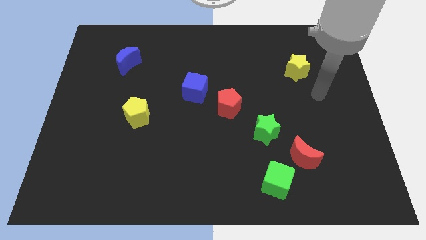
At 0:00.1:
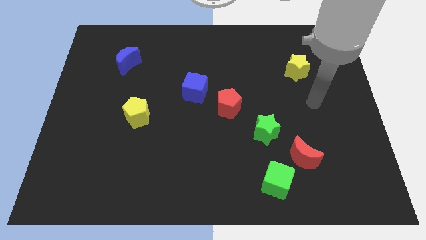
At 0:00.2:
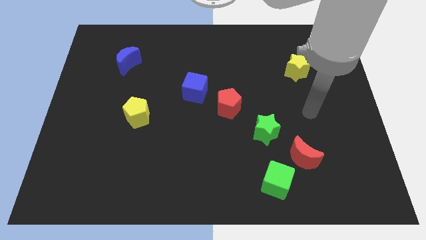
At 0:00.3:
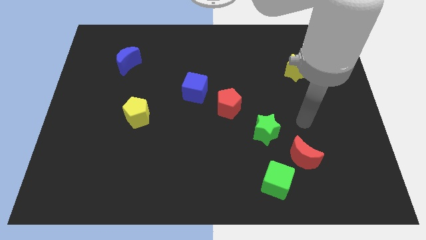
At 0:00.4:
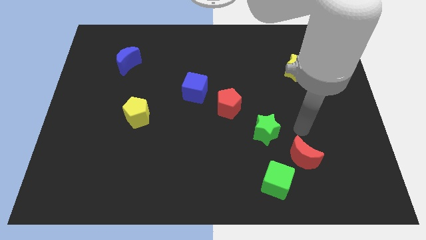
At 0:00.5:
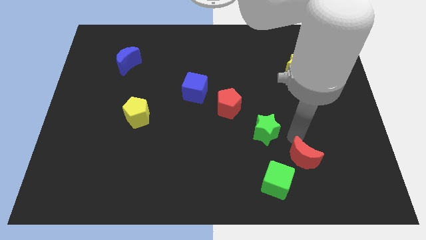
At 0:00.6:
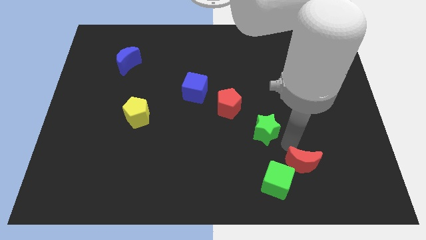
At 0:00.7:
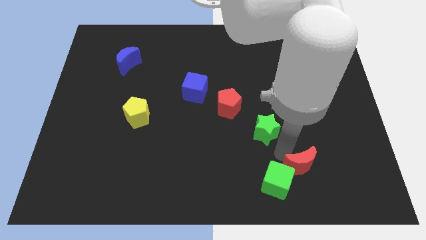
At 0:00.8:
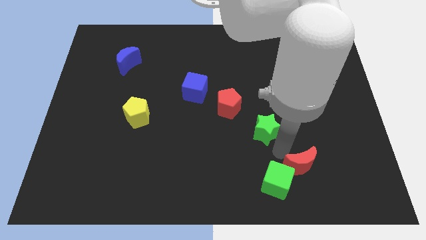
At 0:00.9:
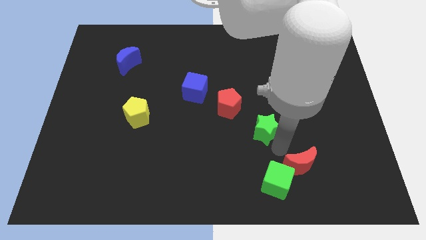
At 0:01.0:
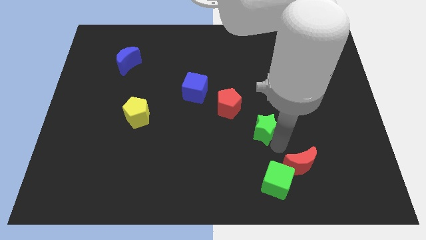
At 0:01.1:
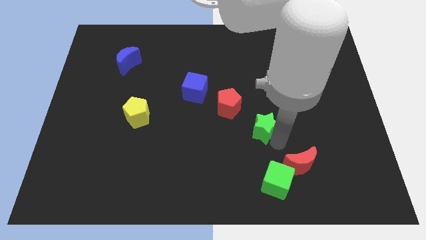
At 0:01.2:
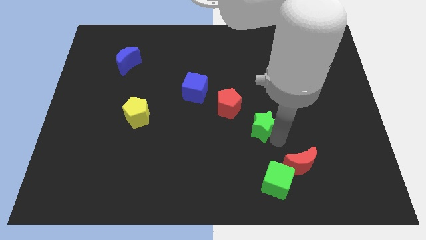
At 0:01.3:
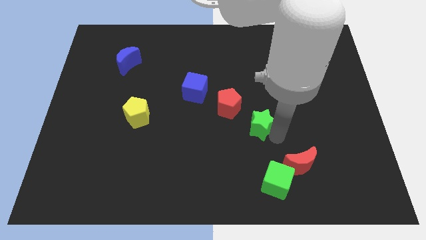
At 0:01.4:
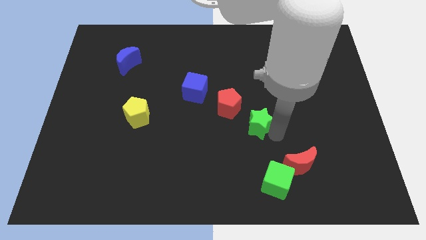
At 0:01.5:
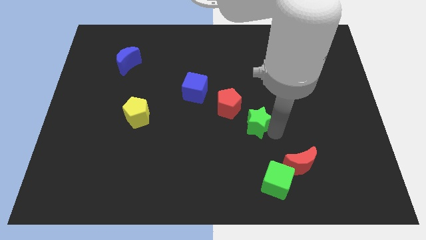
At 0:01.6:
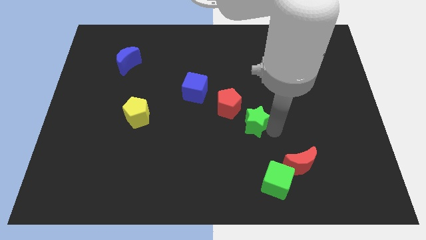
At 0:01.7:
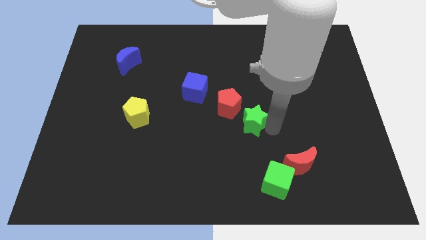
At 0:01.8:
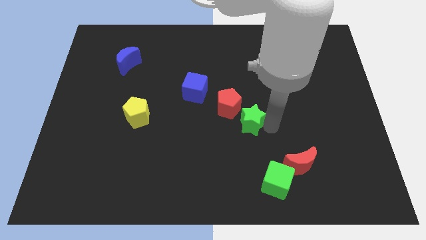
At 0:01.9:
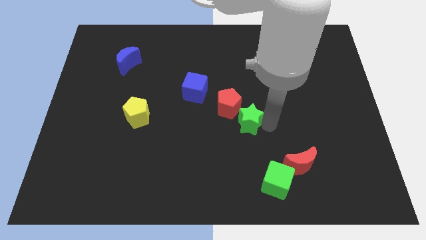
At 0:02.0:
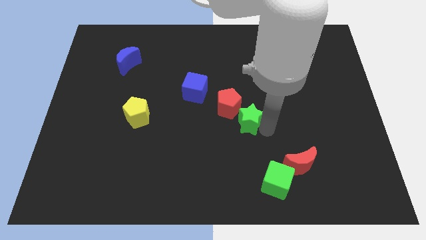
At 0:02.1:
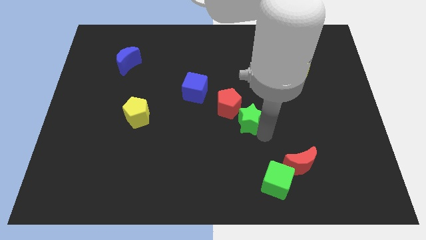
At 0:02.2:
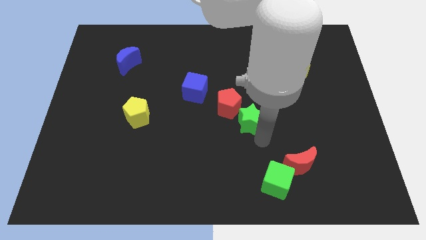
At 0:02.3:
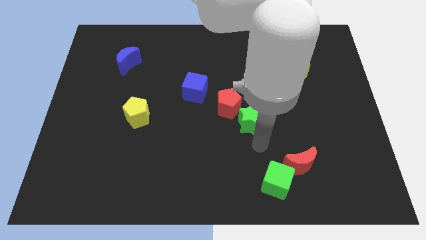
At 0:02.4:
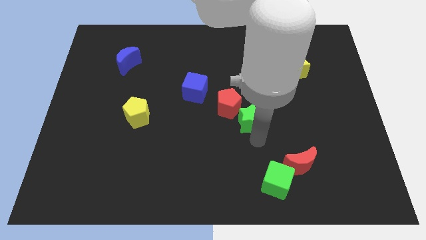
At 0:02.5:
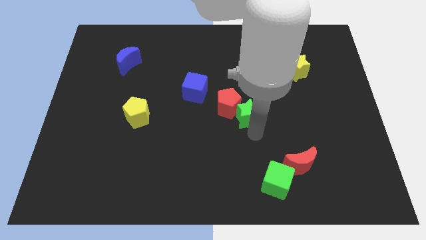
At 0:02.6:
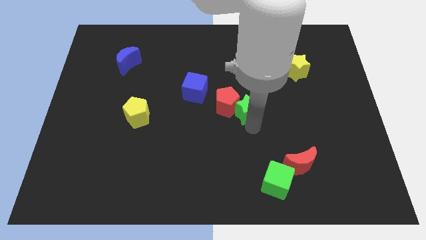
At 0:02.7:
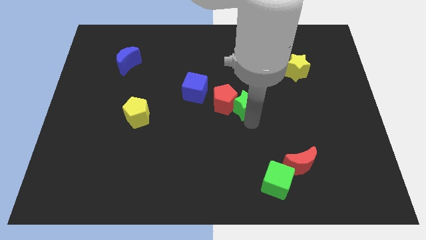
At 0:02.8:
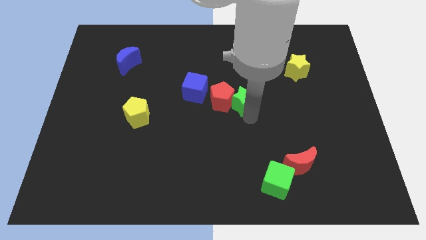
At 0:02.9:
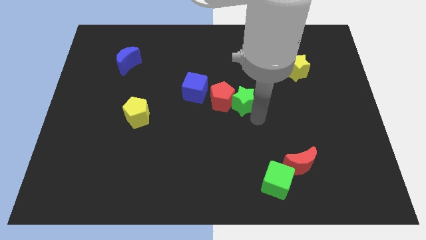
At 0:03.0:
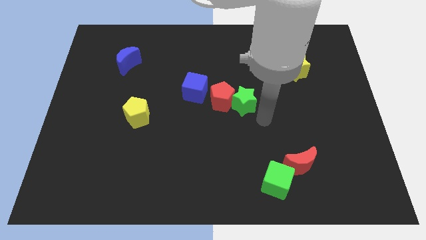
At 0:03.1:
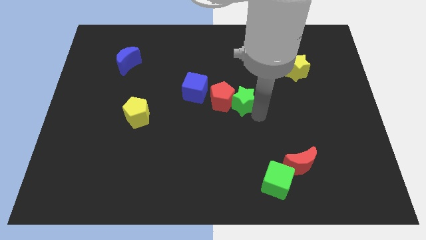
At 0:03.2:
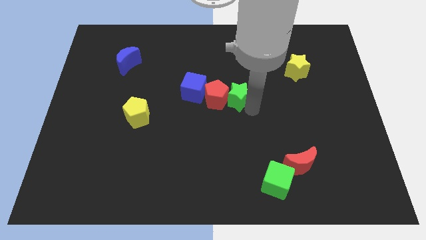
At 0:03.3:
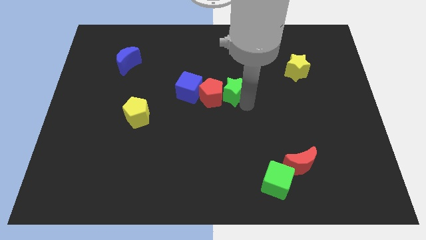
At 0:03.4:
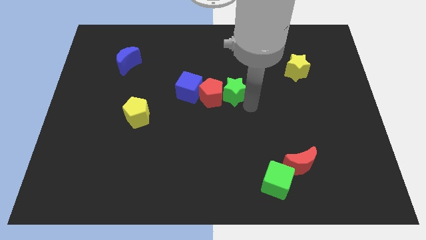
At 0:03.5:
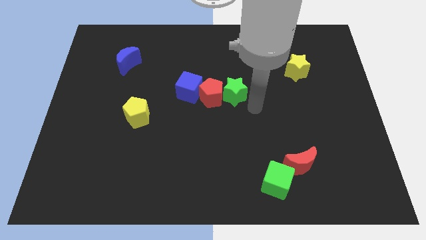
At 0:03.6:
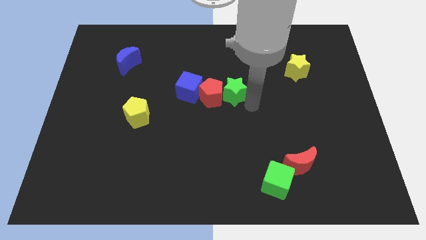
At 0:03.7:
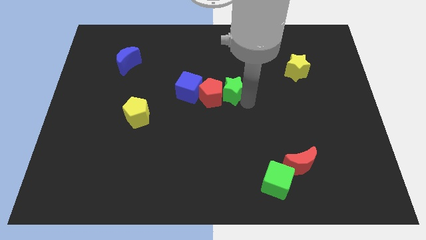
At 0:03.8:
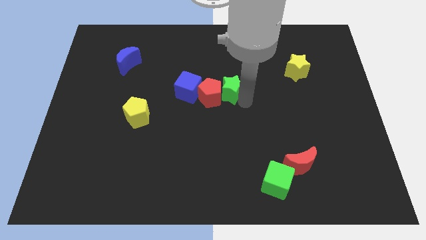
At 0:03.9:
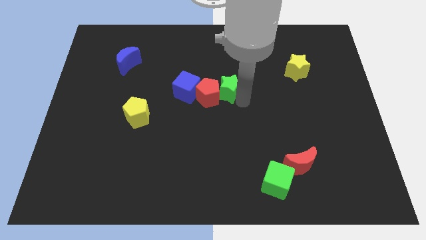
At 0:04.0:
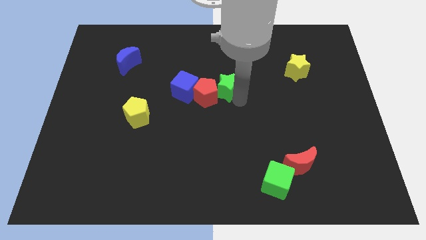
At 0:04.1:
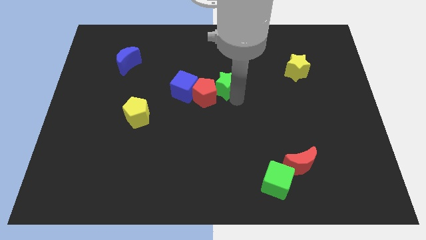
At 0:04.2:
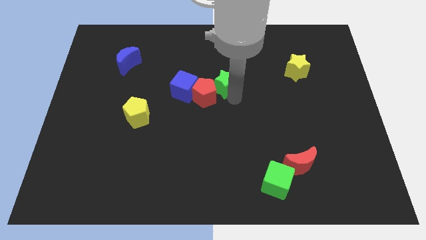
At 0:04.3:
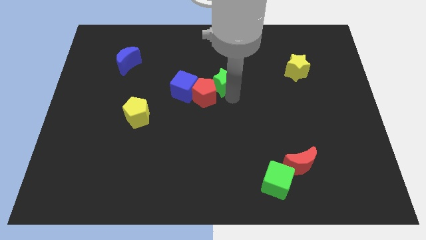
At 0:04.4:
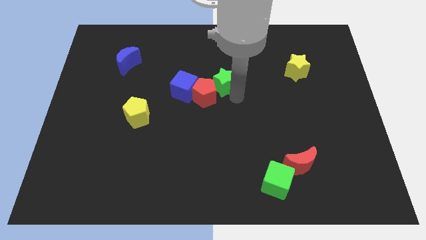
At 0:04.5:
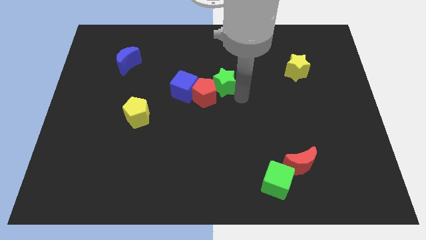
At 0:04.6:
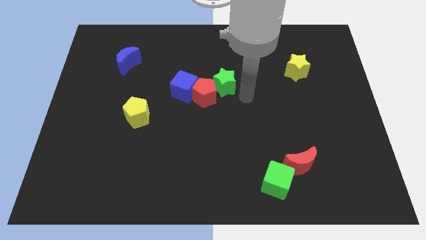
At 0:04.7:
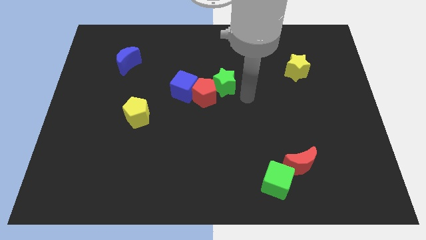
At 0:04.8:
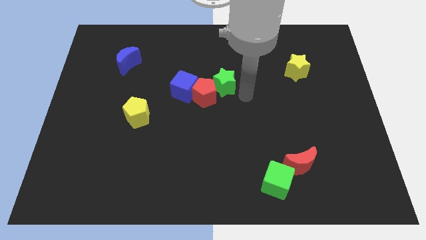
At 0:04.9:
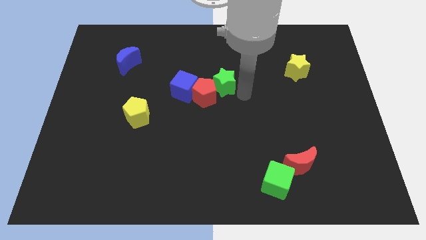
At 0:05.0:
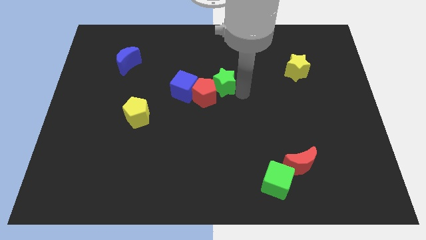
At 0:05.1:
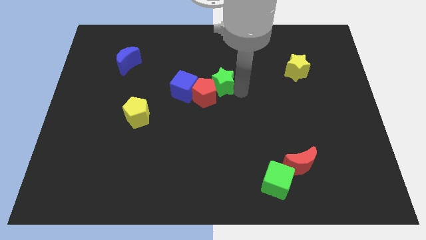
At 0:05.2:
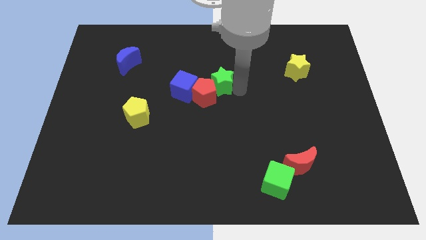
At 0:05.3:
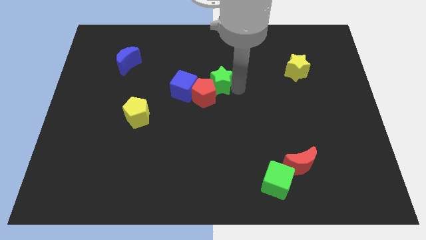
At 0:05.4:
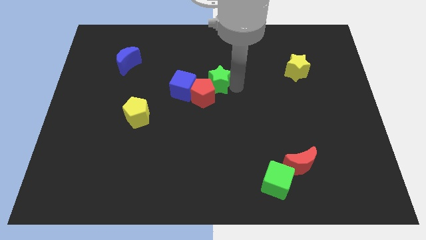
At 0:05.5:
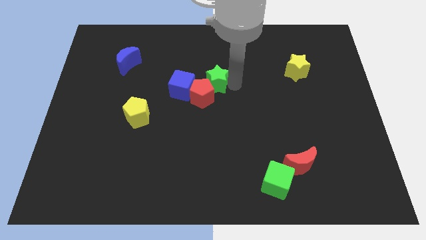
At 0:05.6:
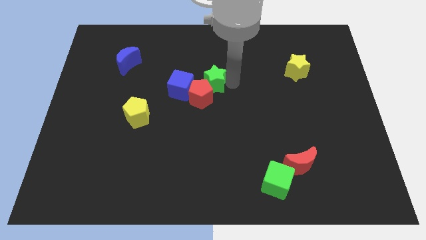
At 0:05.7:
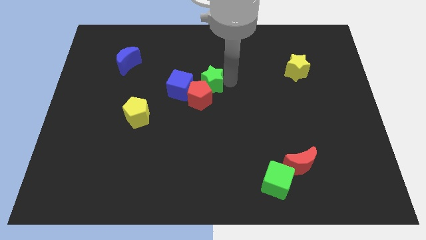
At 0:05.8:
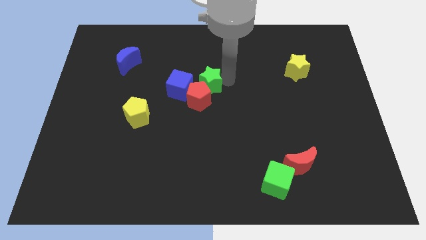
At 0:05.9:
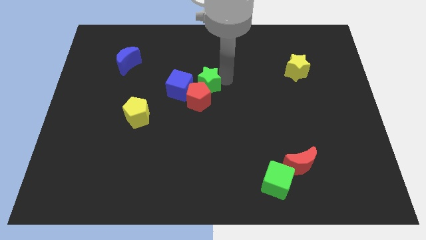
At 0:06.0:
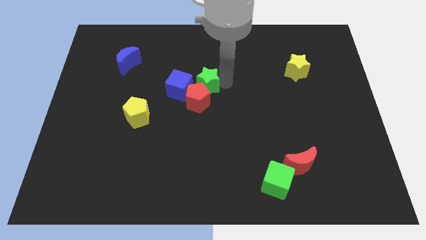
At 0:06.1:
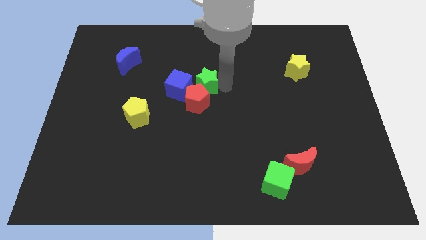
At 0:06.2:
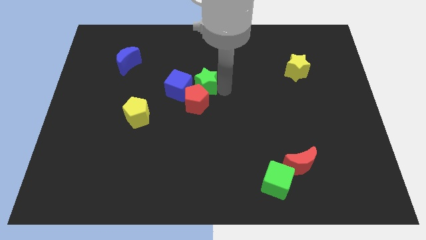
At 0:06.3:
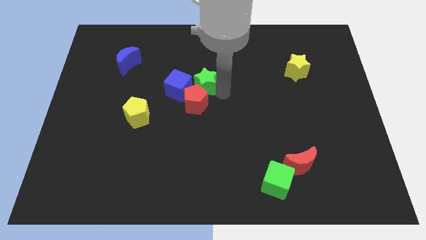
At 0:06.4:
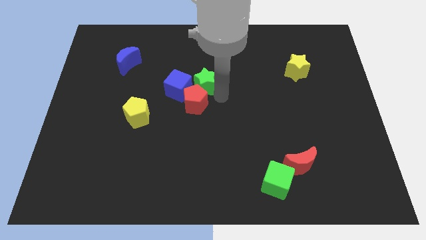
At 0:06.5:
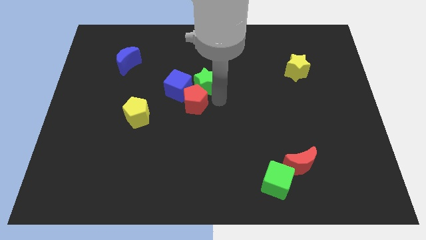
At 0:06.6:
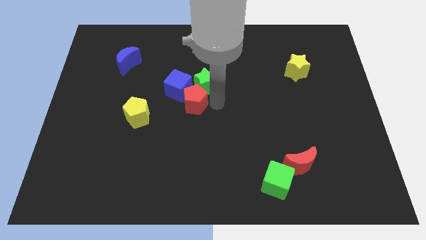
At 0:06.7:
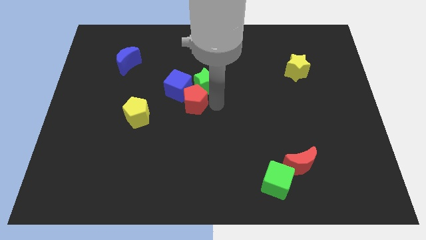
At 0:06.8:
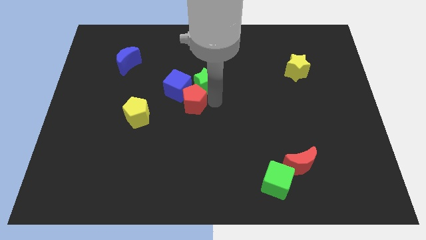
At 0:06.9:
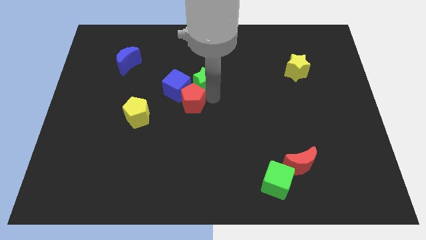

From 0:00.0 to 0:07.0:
push the green star diagonally upwards and left

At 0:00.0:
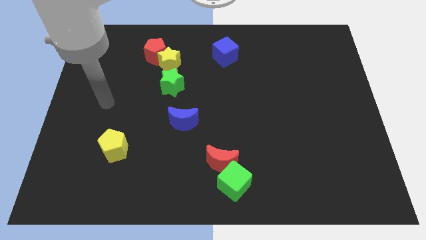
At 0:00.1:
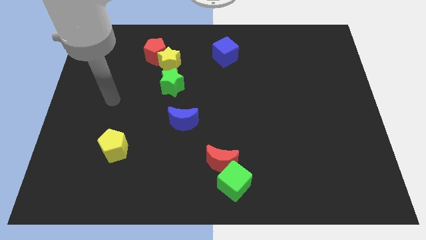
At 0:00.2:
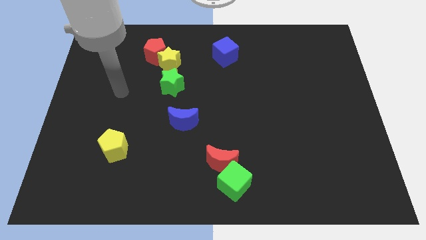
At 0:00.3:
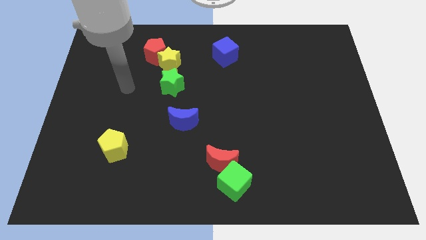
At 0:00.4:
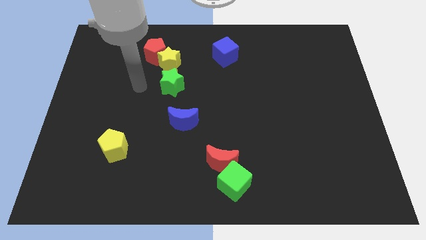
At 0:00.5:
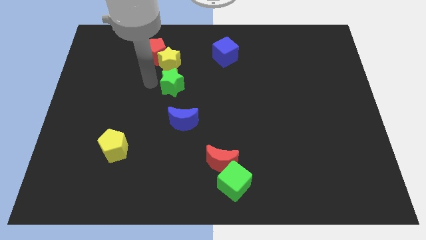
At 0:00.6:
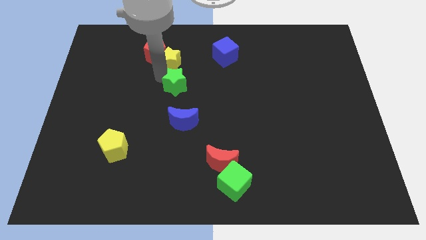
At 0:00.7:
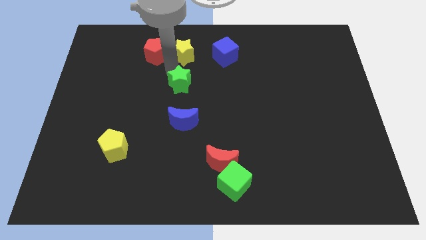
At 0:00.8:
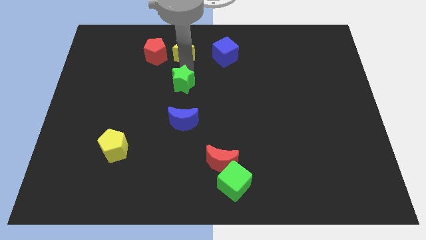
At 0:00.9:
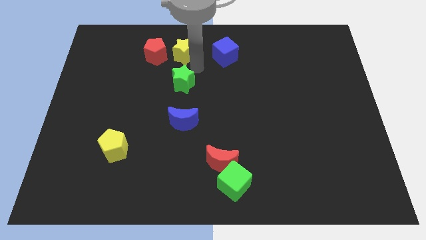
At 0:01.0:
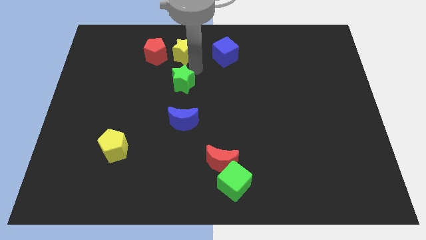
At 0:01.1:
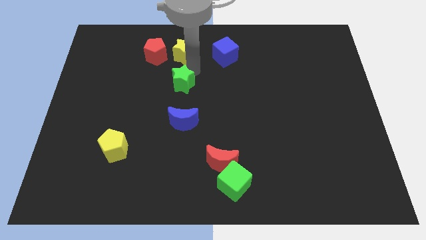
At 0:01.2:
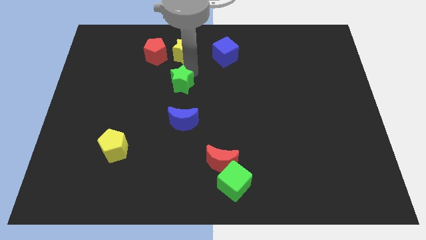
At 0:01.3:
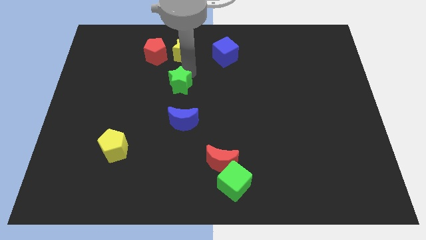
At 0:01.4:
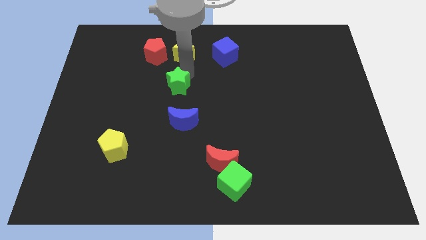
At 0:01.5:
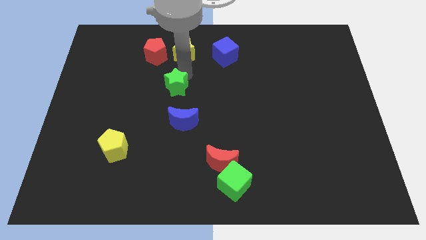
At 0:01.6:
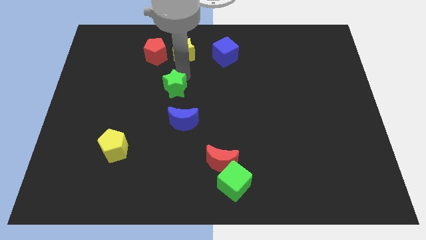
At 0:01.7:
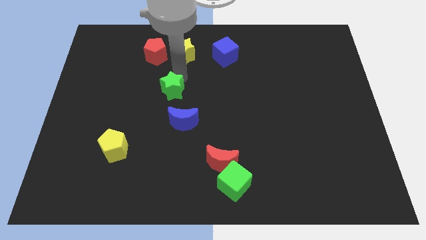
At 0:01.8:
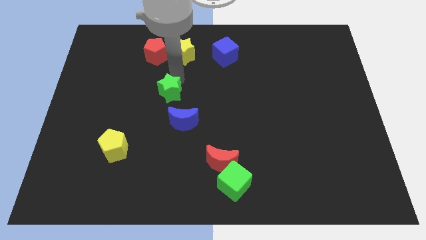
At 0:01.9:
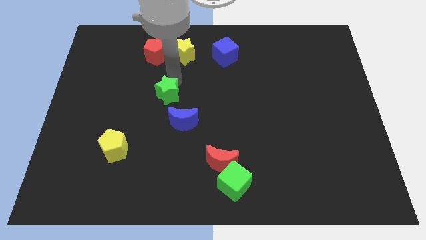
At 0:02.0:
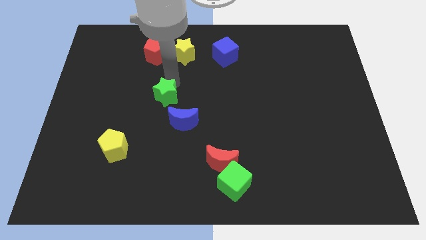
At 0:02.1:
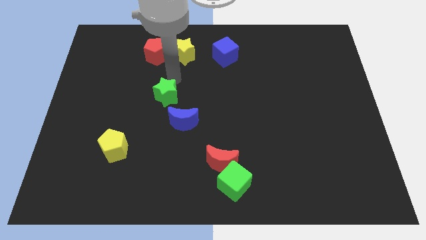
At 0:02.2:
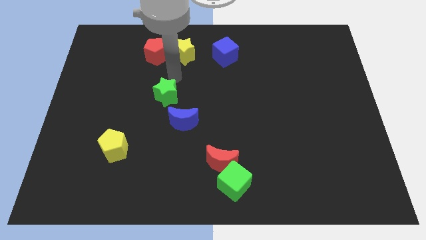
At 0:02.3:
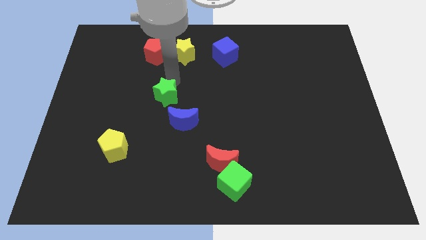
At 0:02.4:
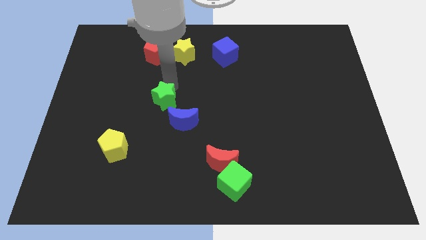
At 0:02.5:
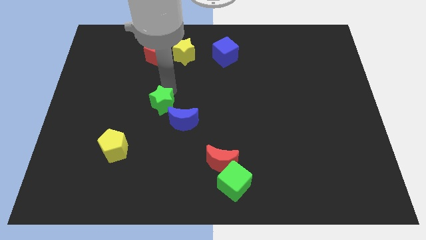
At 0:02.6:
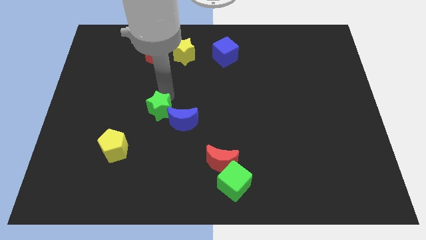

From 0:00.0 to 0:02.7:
move the green star downwards a bit
